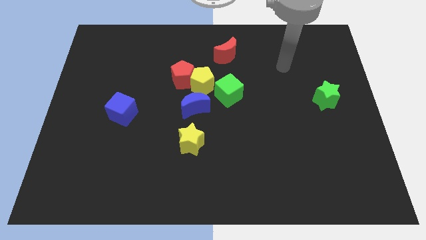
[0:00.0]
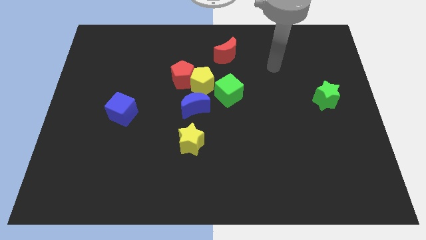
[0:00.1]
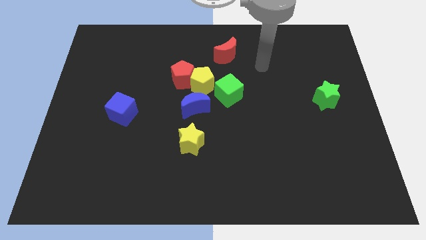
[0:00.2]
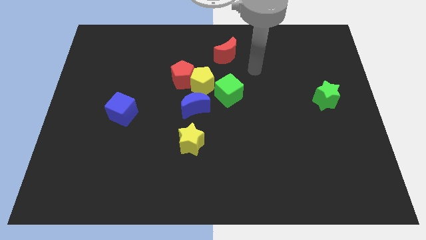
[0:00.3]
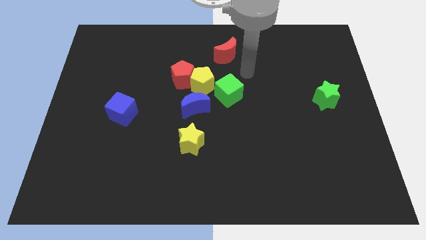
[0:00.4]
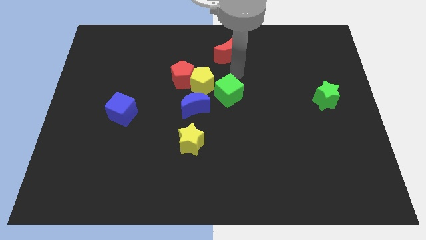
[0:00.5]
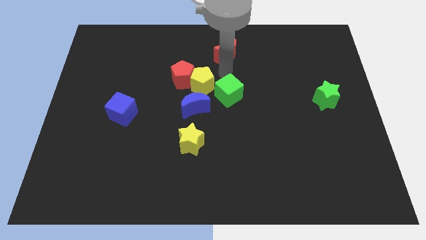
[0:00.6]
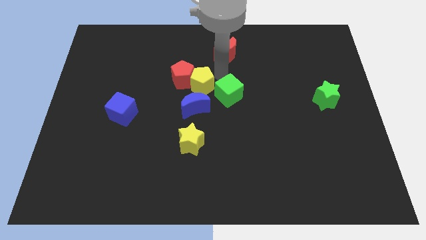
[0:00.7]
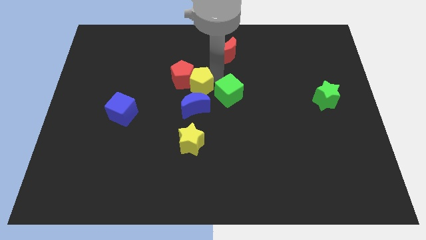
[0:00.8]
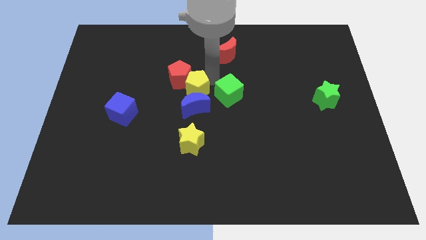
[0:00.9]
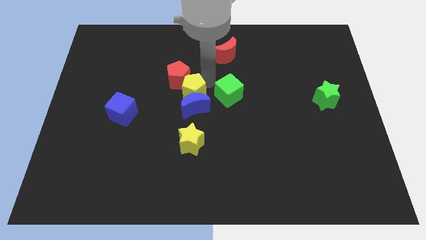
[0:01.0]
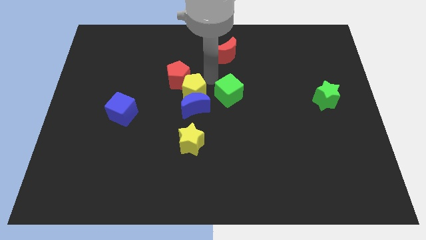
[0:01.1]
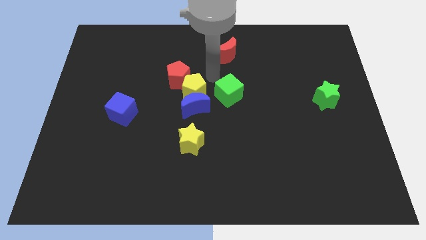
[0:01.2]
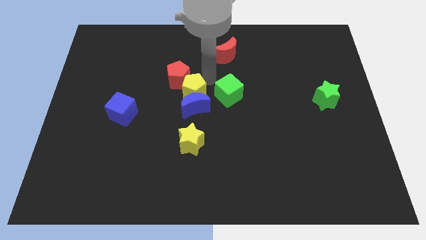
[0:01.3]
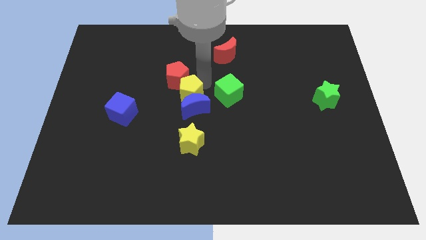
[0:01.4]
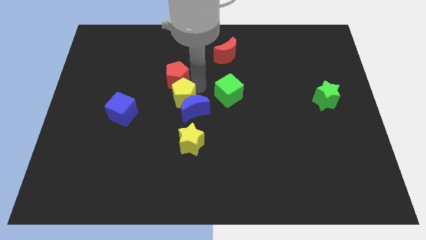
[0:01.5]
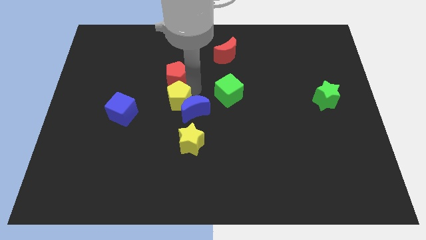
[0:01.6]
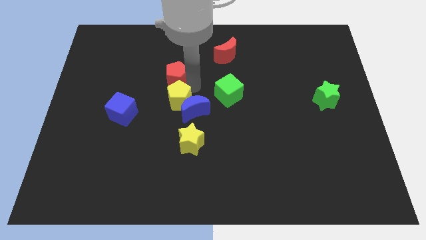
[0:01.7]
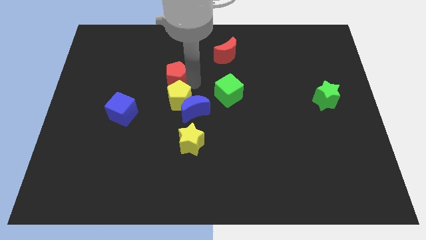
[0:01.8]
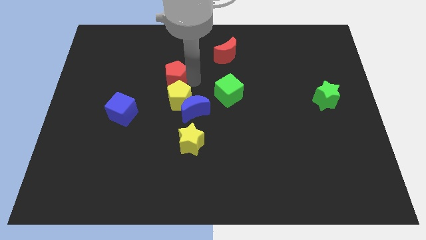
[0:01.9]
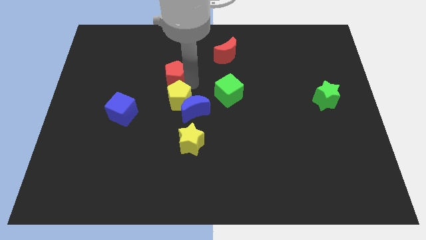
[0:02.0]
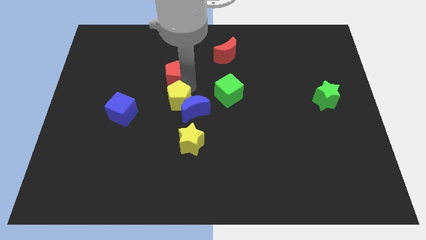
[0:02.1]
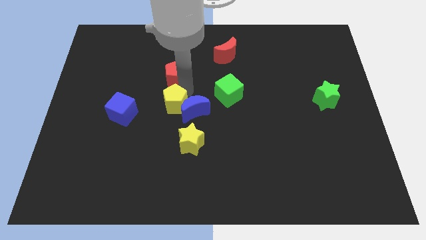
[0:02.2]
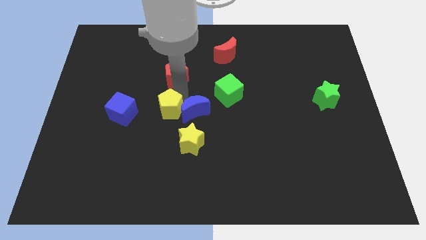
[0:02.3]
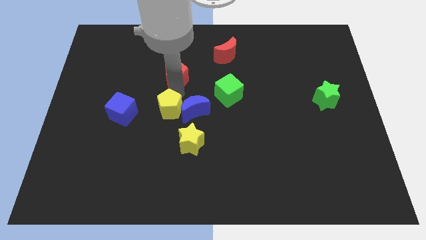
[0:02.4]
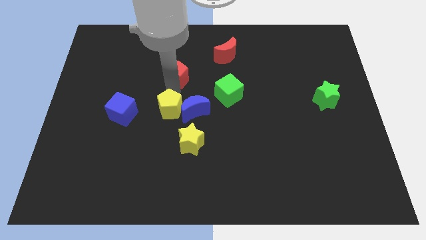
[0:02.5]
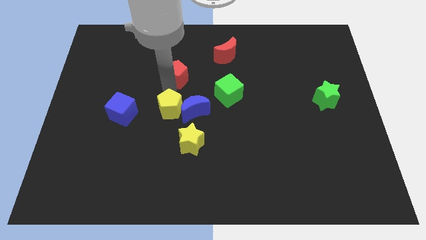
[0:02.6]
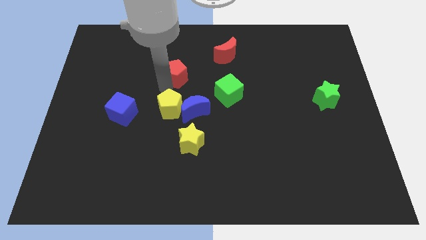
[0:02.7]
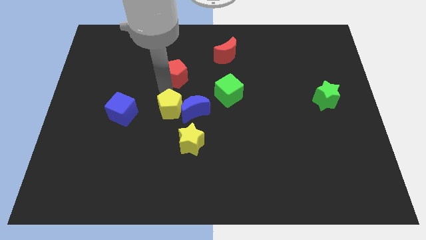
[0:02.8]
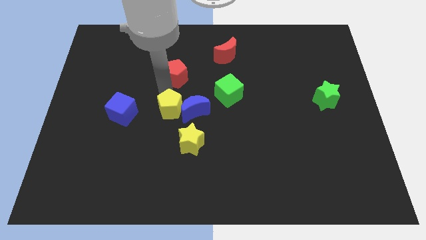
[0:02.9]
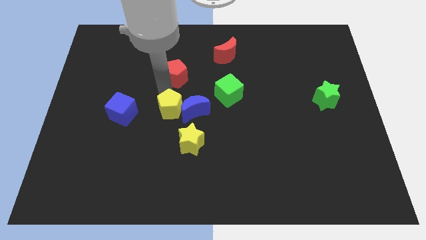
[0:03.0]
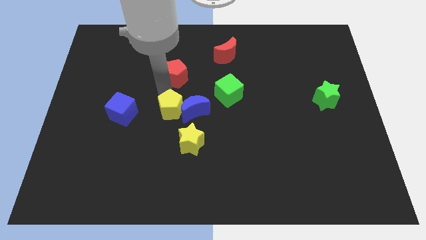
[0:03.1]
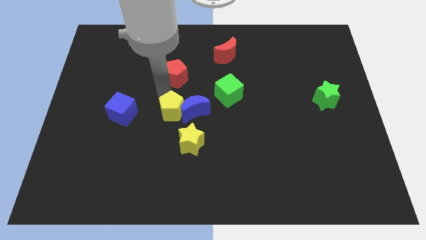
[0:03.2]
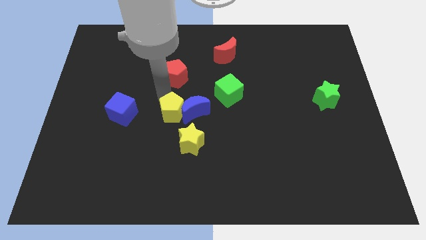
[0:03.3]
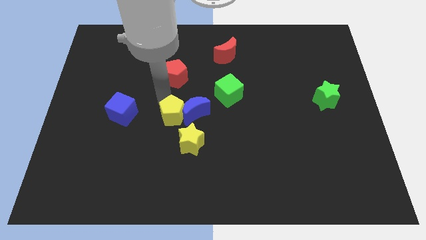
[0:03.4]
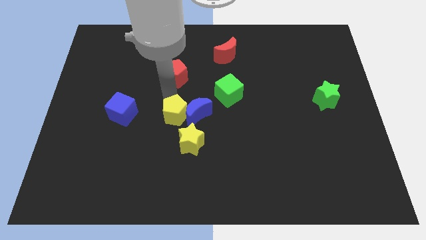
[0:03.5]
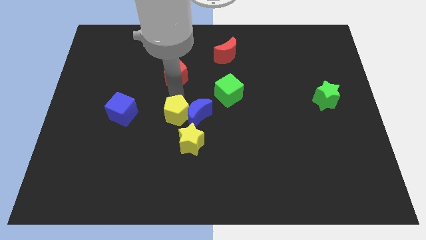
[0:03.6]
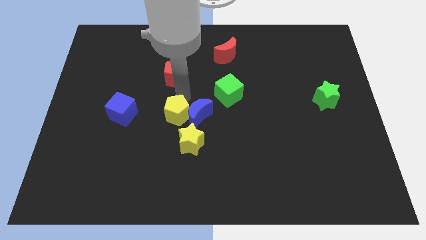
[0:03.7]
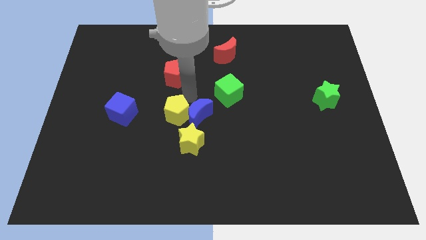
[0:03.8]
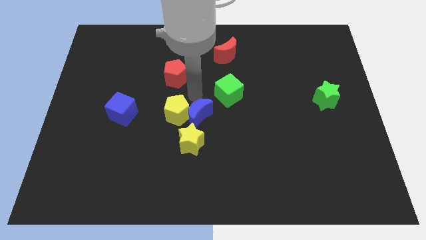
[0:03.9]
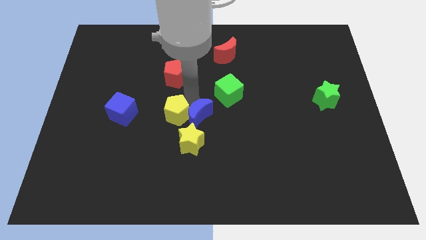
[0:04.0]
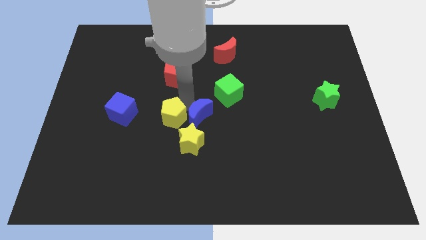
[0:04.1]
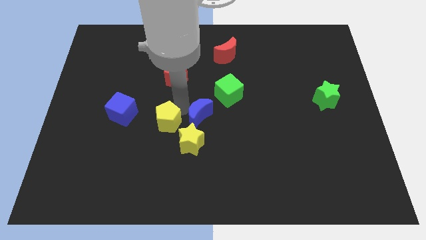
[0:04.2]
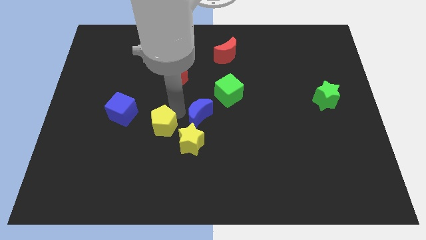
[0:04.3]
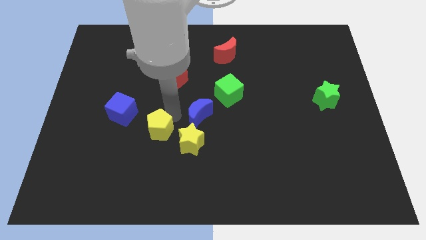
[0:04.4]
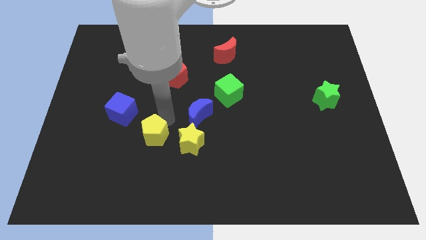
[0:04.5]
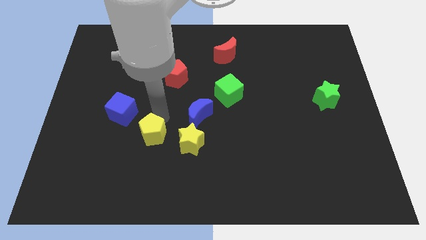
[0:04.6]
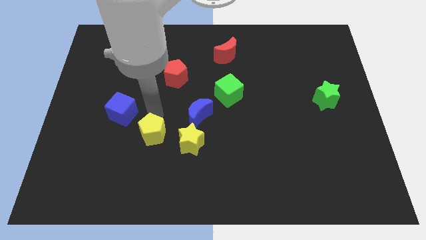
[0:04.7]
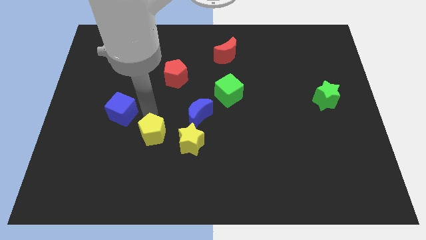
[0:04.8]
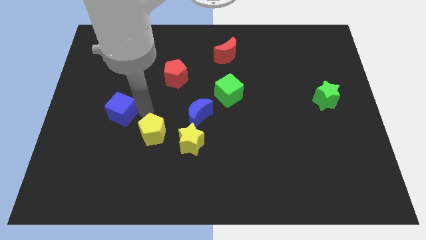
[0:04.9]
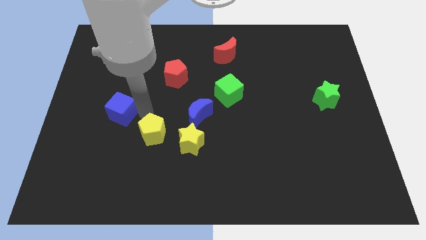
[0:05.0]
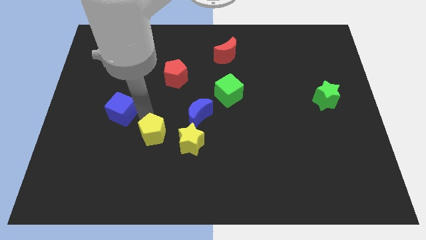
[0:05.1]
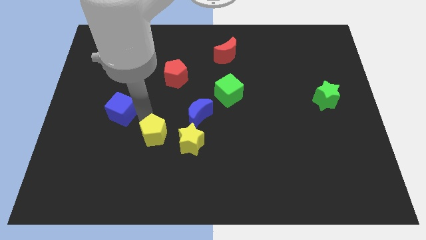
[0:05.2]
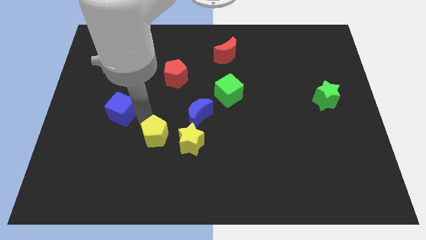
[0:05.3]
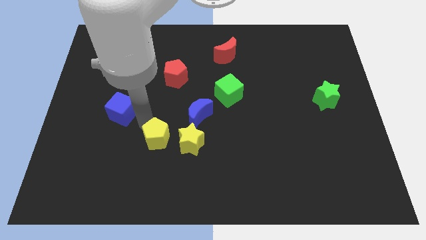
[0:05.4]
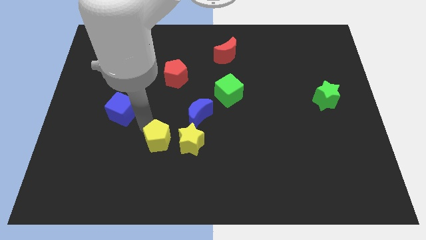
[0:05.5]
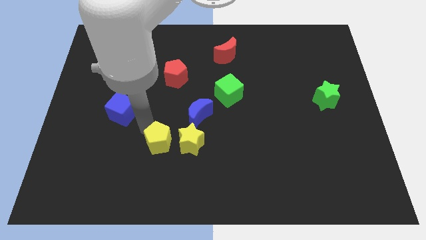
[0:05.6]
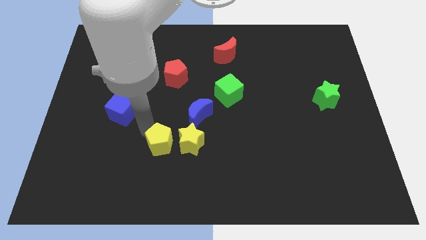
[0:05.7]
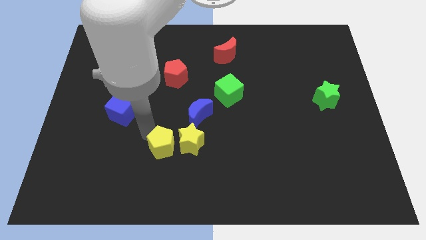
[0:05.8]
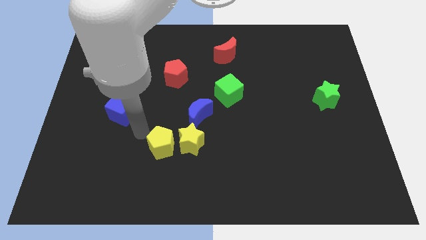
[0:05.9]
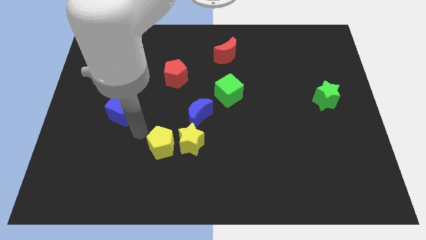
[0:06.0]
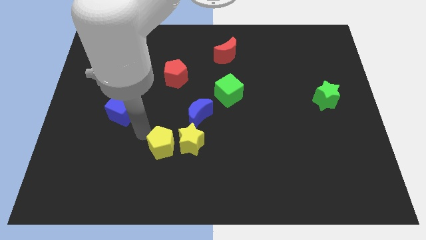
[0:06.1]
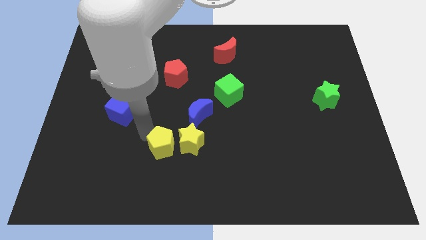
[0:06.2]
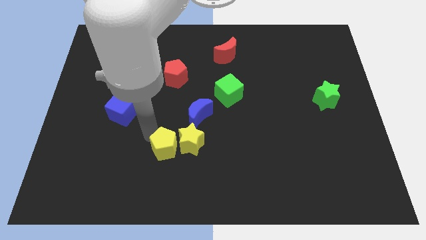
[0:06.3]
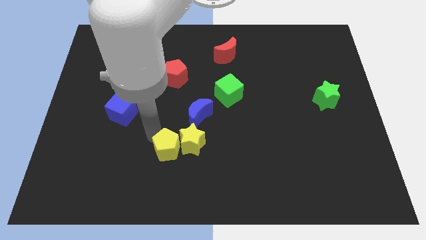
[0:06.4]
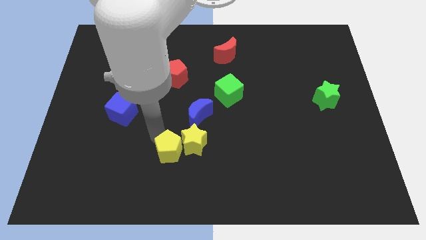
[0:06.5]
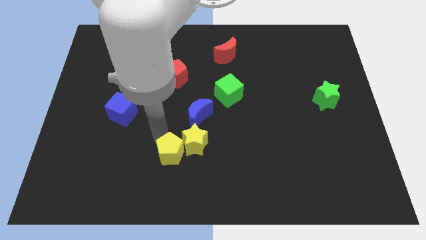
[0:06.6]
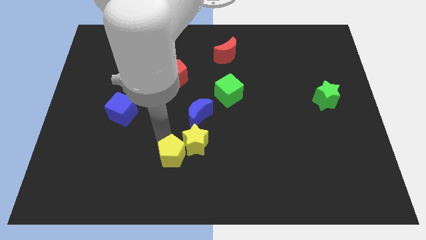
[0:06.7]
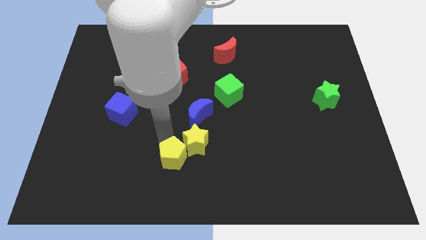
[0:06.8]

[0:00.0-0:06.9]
slide the yellow pentagon to the bottom of the blue moon
